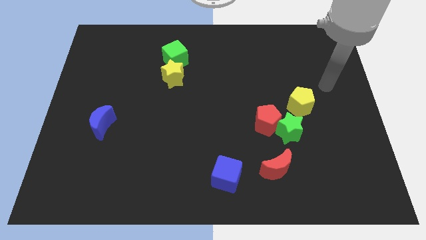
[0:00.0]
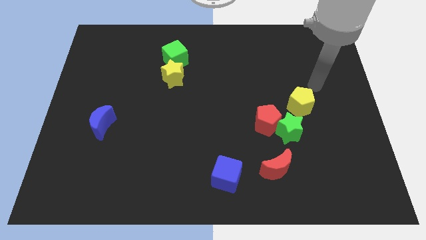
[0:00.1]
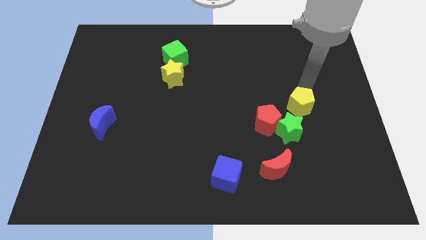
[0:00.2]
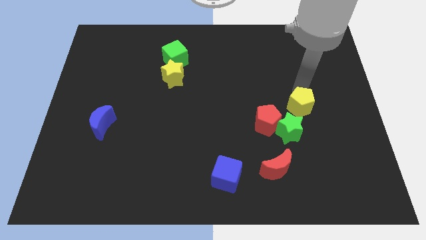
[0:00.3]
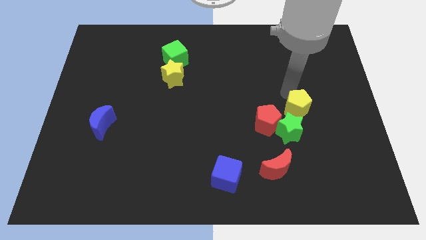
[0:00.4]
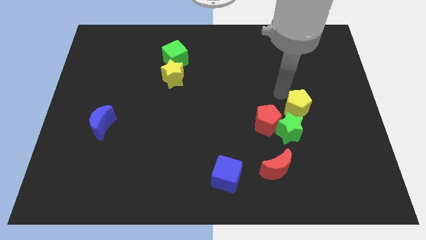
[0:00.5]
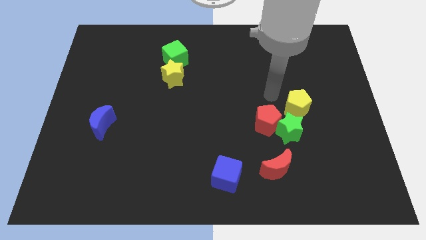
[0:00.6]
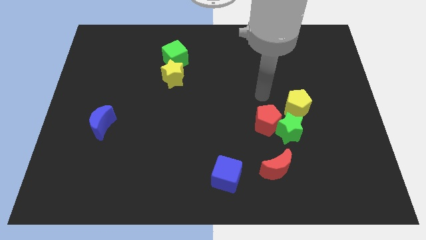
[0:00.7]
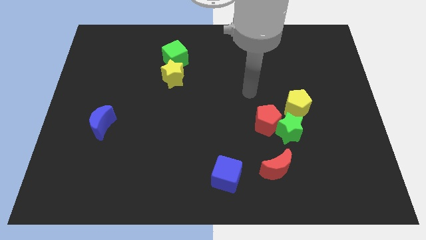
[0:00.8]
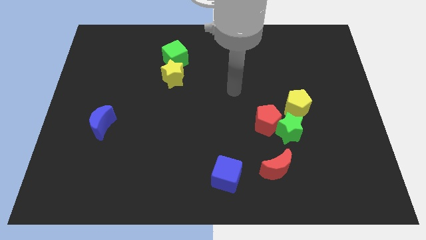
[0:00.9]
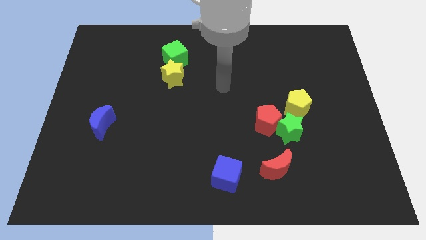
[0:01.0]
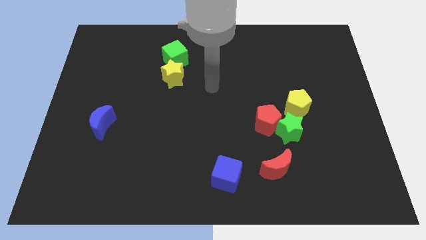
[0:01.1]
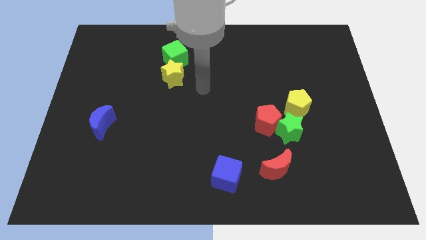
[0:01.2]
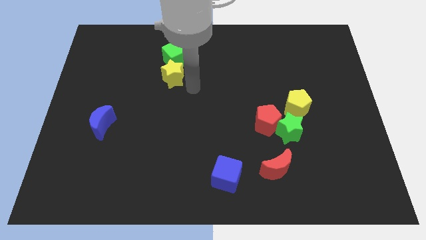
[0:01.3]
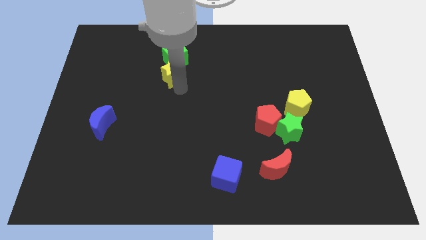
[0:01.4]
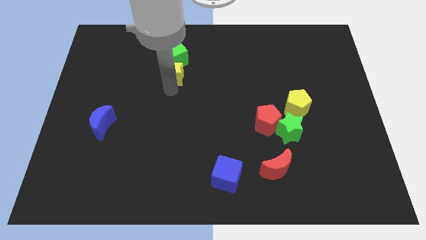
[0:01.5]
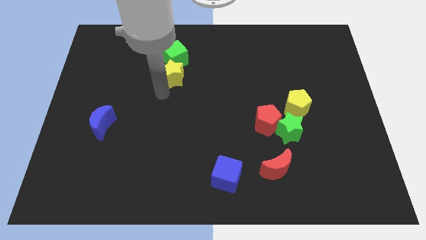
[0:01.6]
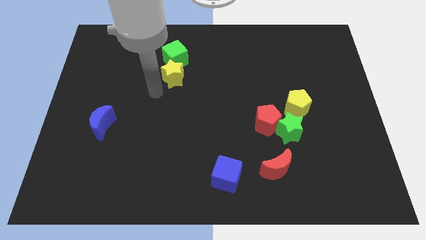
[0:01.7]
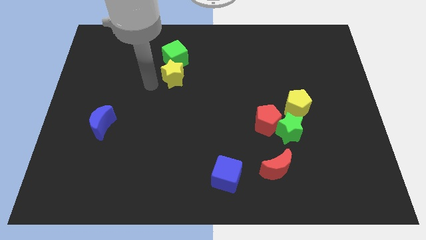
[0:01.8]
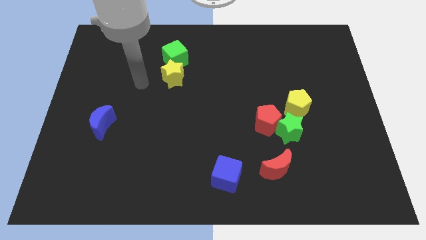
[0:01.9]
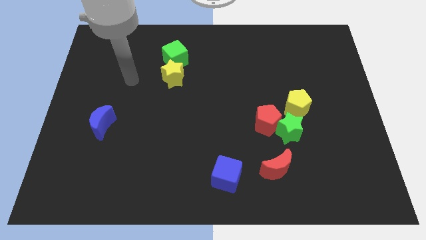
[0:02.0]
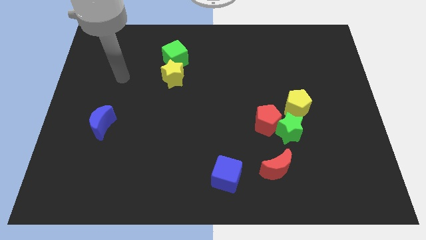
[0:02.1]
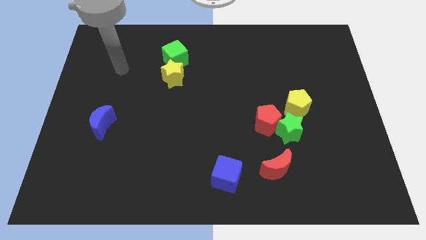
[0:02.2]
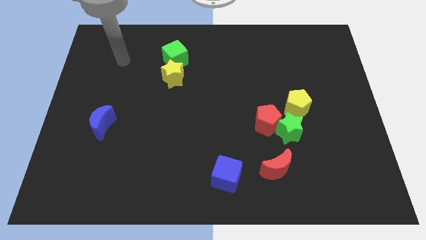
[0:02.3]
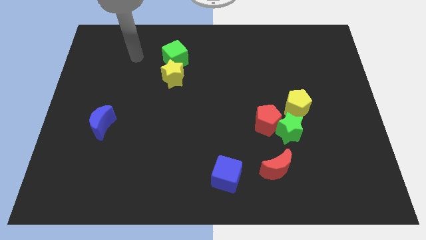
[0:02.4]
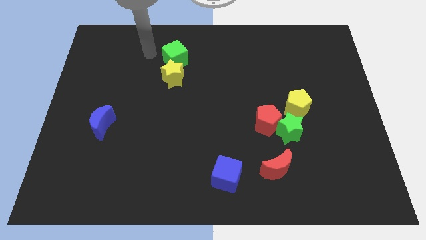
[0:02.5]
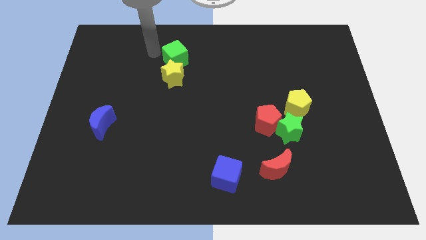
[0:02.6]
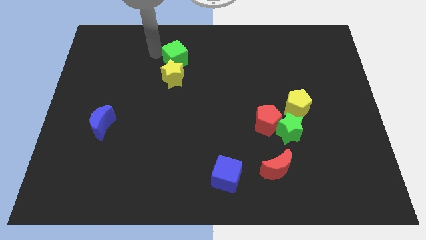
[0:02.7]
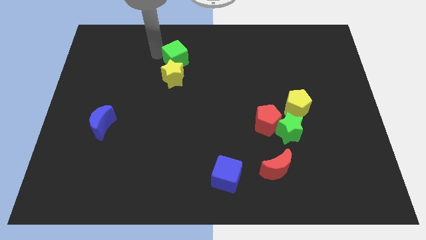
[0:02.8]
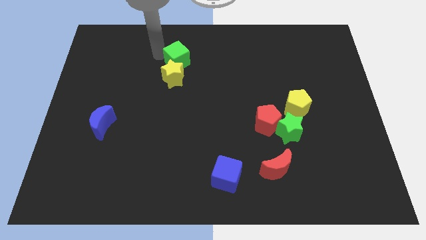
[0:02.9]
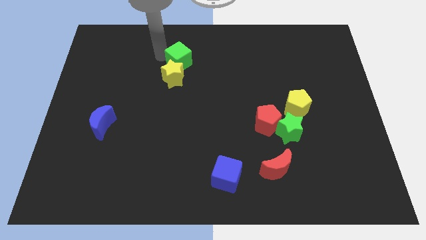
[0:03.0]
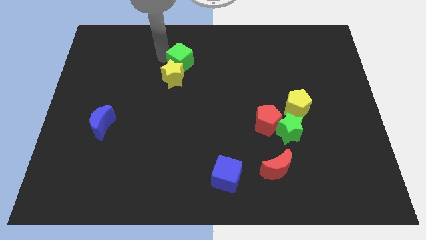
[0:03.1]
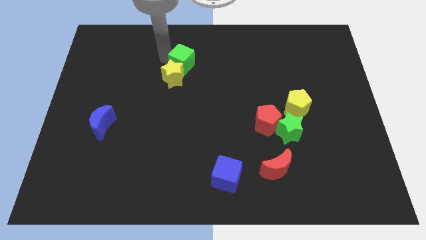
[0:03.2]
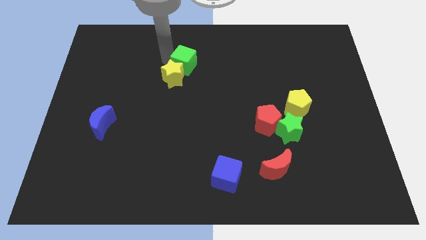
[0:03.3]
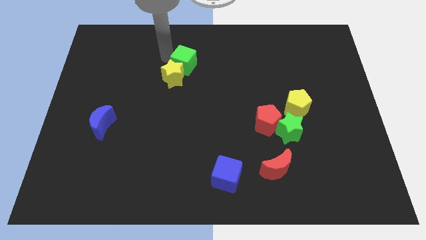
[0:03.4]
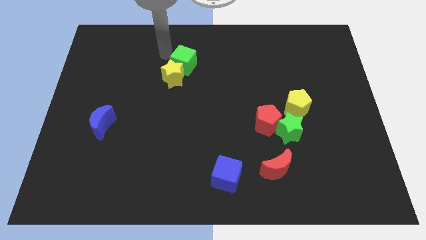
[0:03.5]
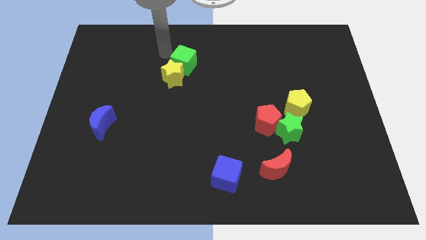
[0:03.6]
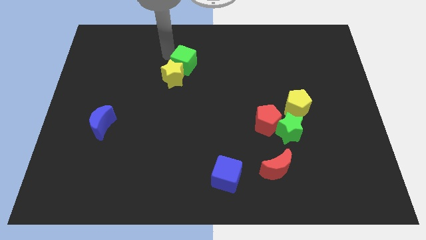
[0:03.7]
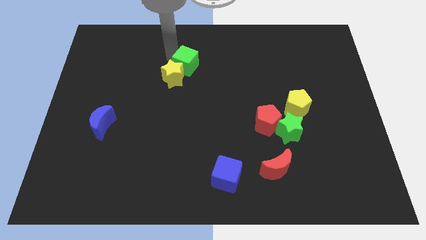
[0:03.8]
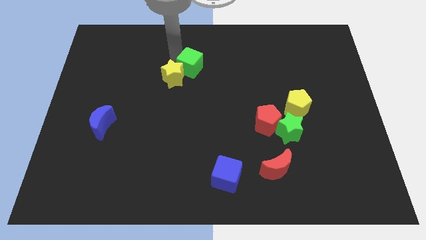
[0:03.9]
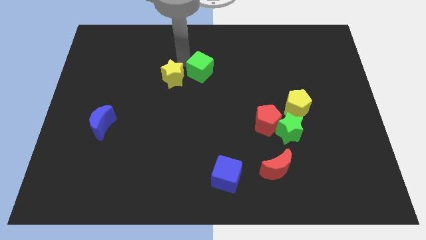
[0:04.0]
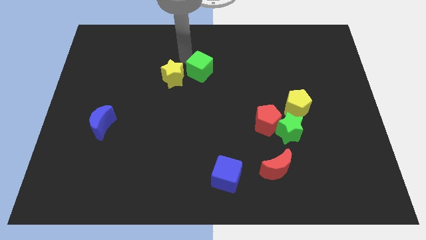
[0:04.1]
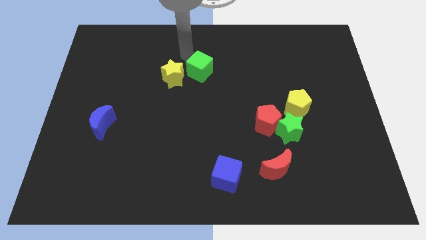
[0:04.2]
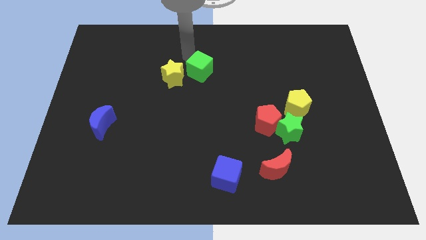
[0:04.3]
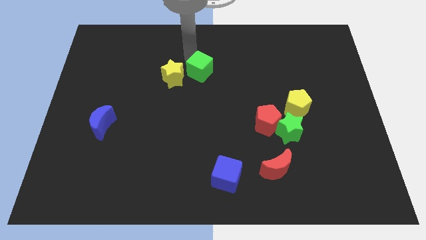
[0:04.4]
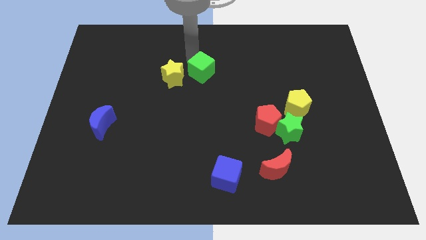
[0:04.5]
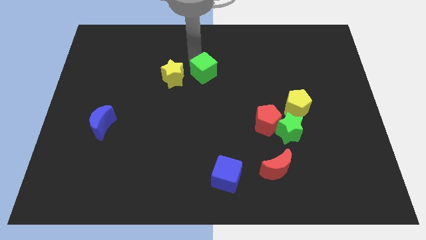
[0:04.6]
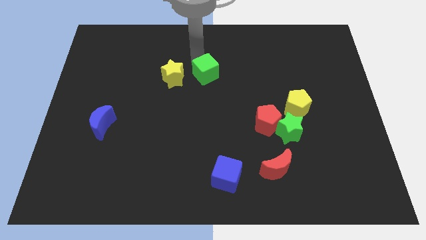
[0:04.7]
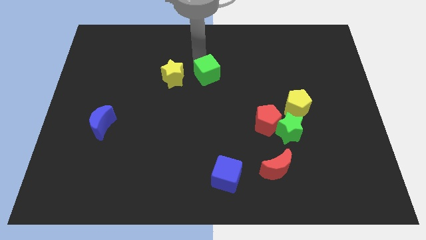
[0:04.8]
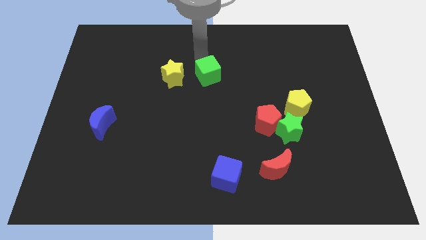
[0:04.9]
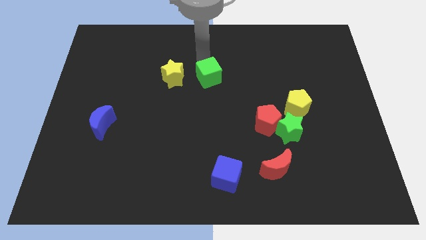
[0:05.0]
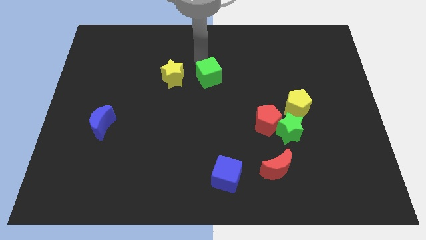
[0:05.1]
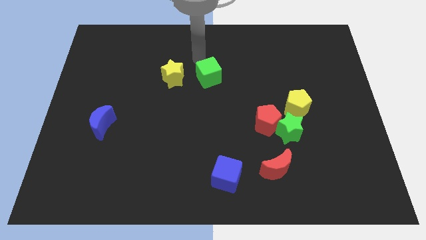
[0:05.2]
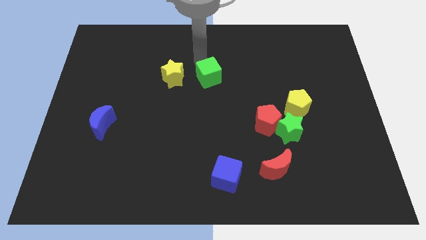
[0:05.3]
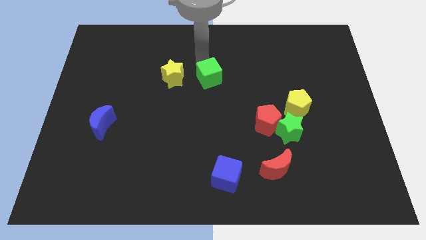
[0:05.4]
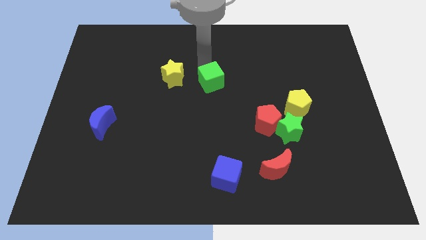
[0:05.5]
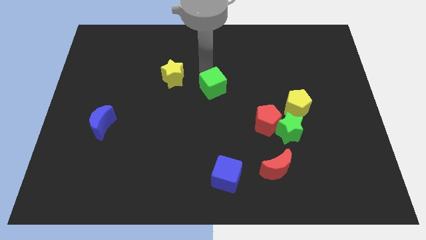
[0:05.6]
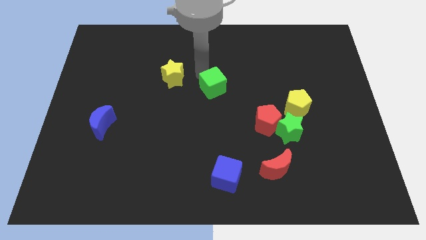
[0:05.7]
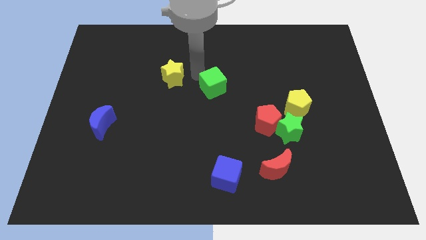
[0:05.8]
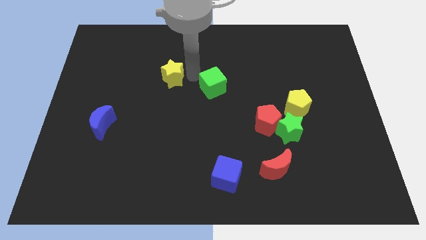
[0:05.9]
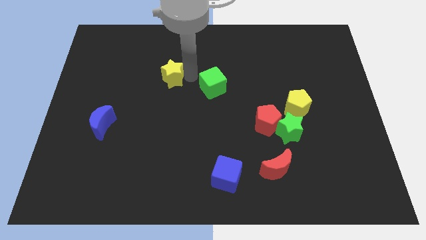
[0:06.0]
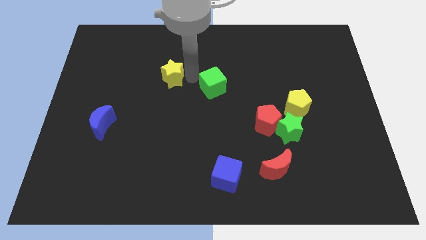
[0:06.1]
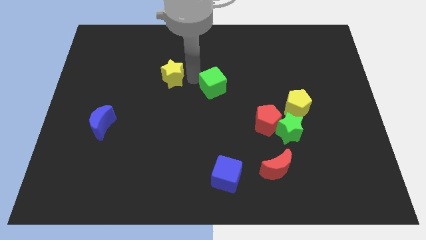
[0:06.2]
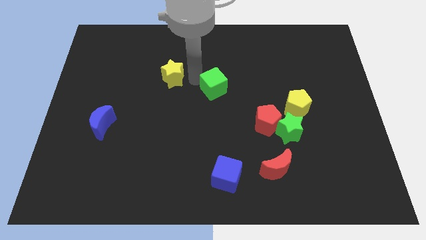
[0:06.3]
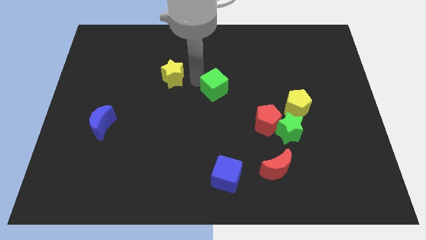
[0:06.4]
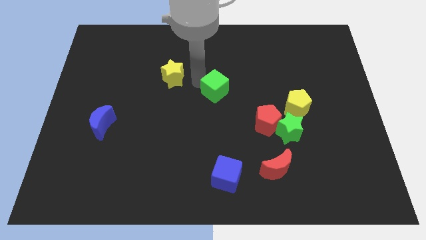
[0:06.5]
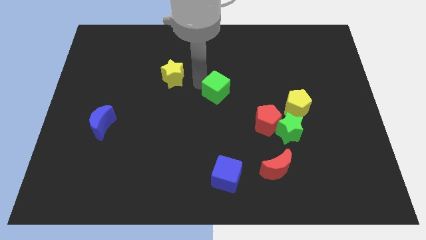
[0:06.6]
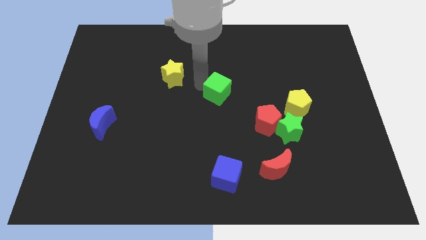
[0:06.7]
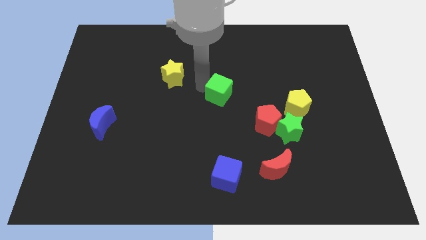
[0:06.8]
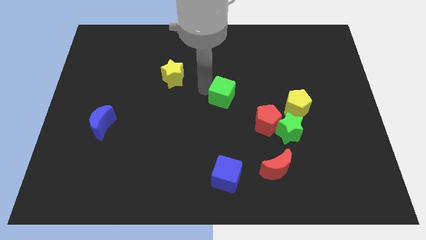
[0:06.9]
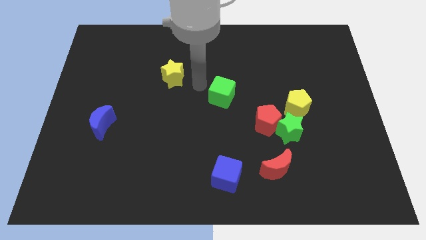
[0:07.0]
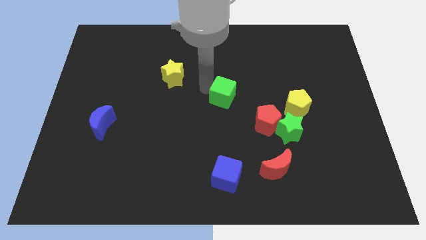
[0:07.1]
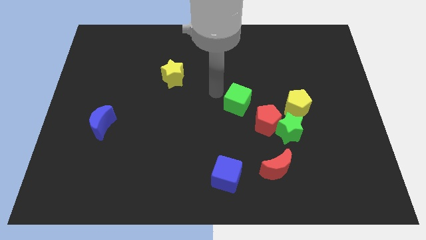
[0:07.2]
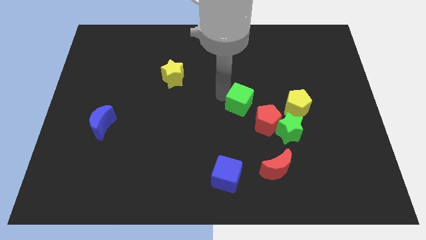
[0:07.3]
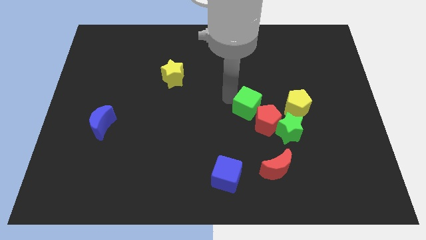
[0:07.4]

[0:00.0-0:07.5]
move the green cube to the top left side of the green star
